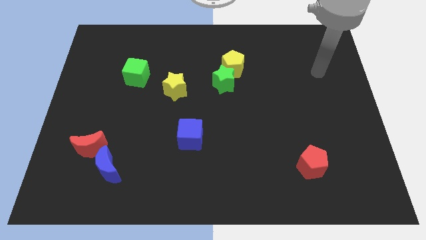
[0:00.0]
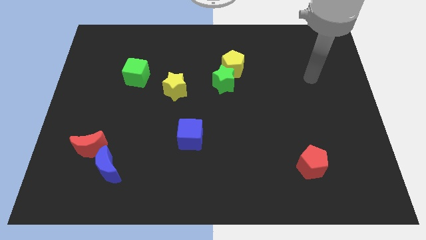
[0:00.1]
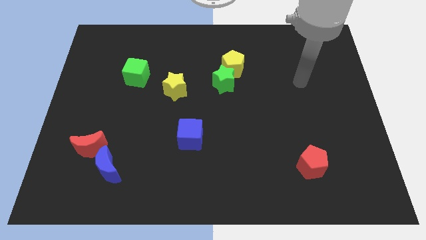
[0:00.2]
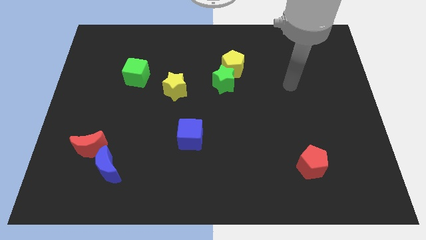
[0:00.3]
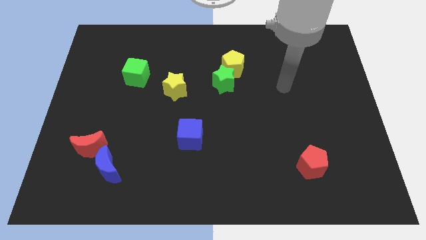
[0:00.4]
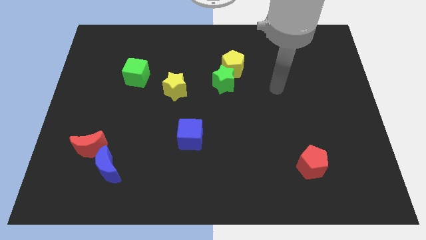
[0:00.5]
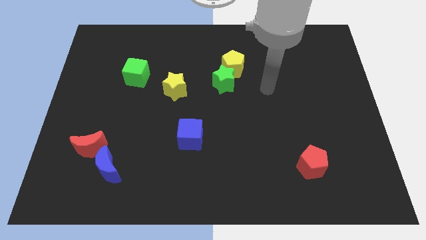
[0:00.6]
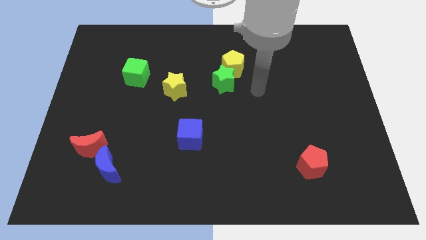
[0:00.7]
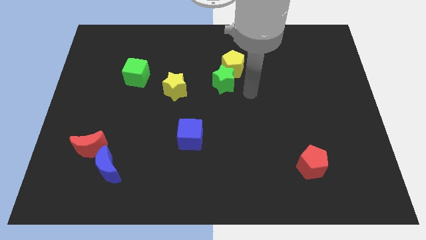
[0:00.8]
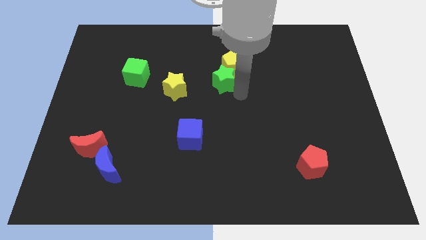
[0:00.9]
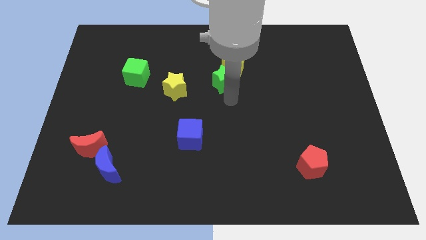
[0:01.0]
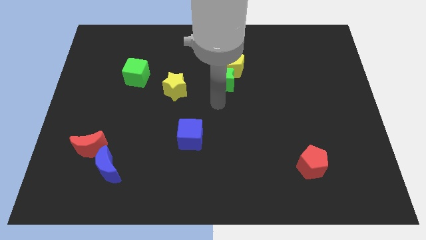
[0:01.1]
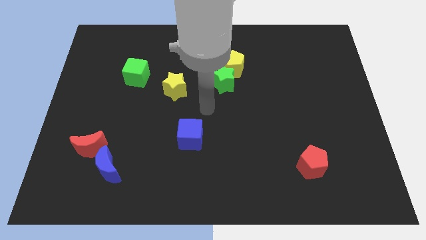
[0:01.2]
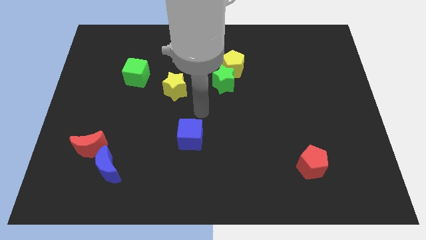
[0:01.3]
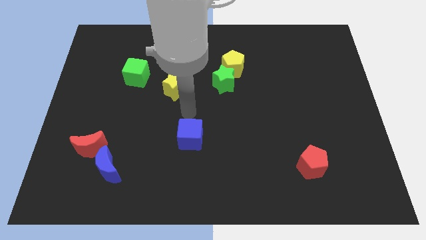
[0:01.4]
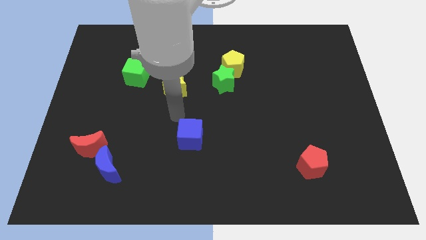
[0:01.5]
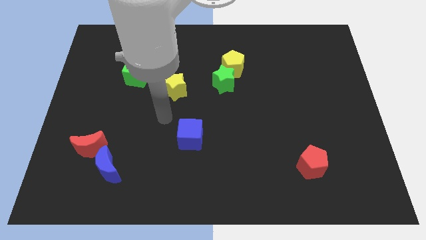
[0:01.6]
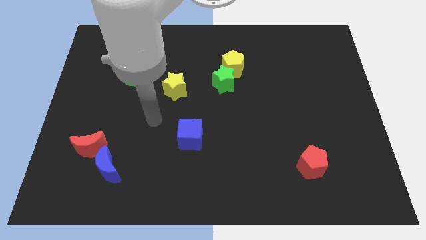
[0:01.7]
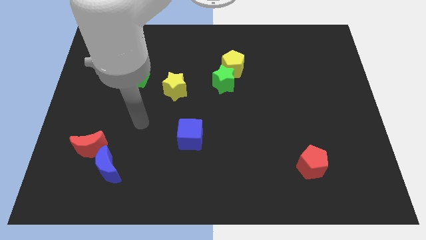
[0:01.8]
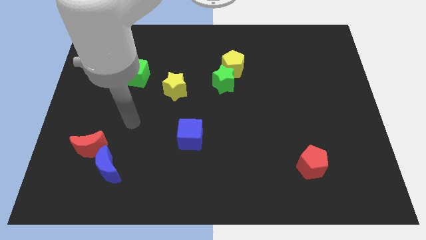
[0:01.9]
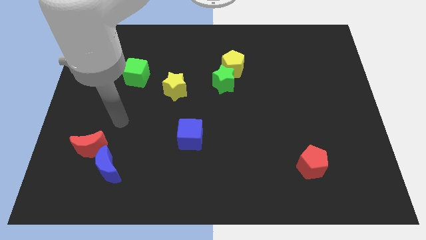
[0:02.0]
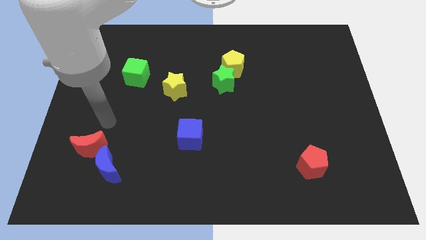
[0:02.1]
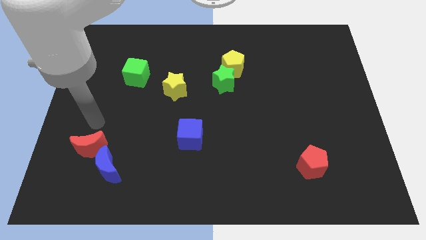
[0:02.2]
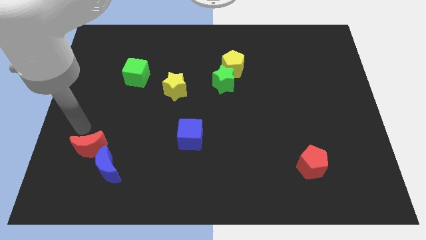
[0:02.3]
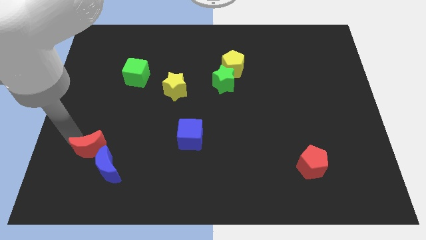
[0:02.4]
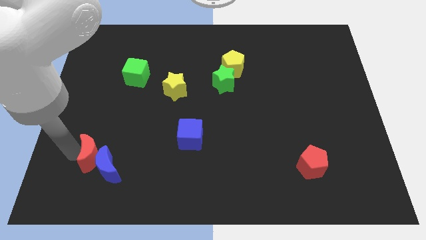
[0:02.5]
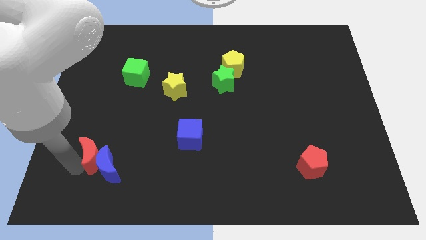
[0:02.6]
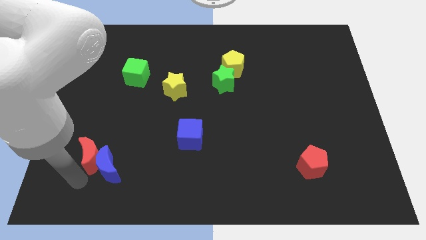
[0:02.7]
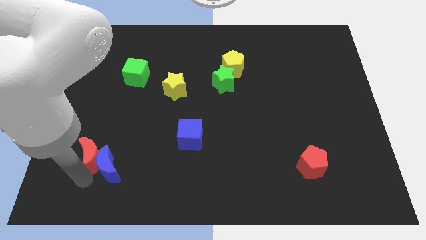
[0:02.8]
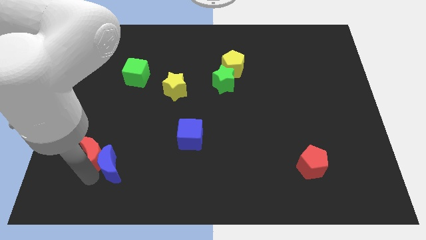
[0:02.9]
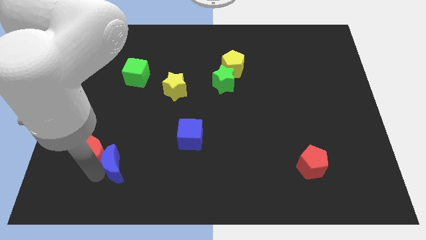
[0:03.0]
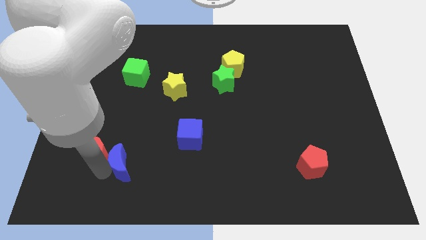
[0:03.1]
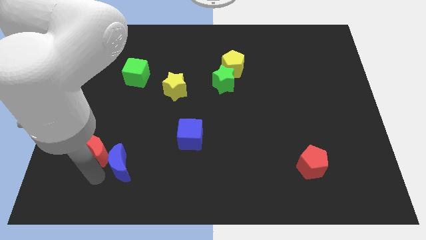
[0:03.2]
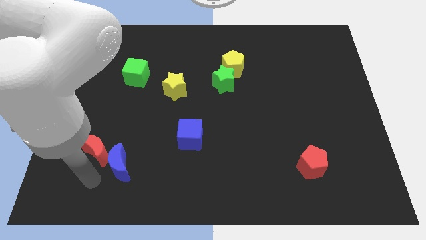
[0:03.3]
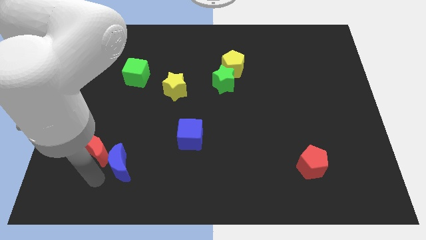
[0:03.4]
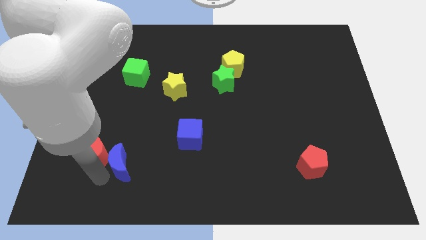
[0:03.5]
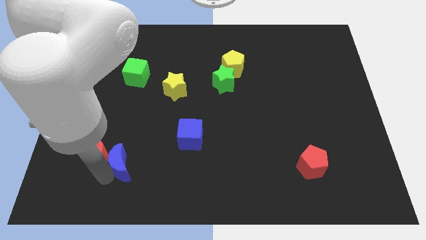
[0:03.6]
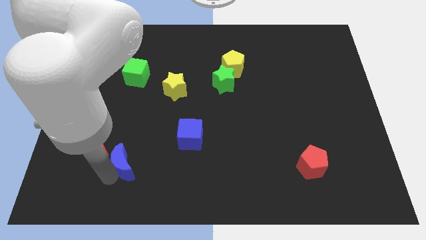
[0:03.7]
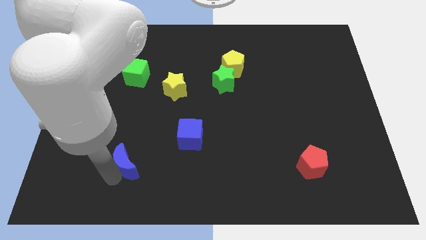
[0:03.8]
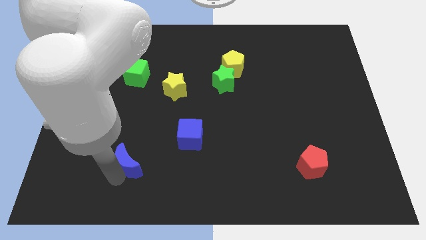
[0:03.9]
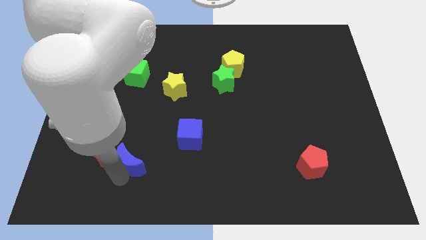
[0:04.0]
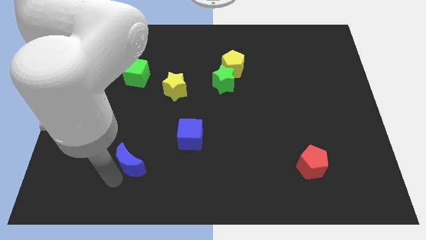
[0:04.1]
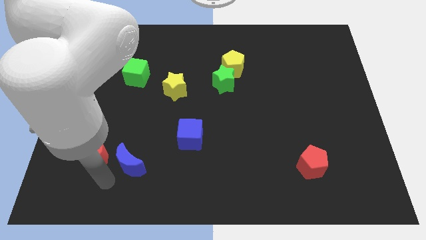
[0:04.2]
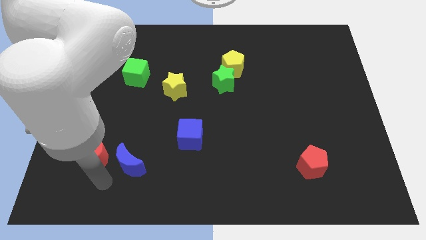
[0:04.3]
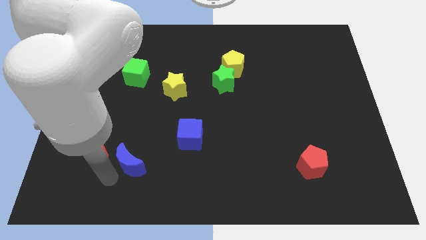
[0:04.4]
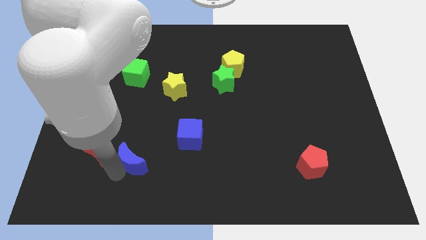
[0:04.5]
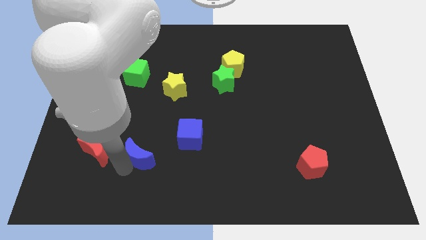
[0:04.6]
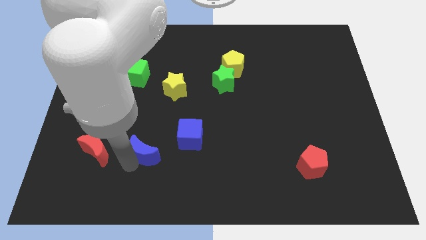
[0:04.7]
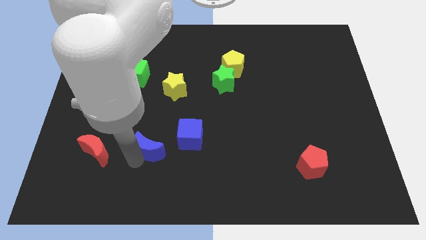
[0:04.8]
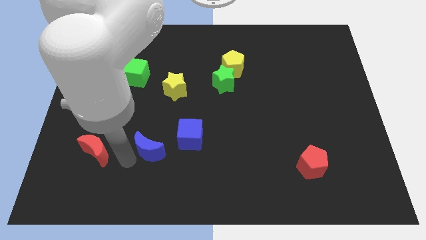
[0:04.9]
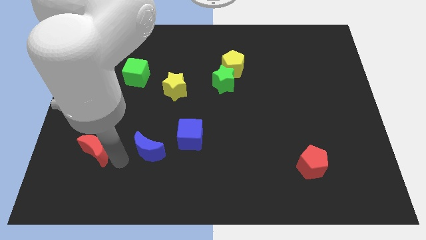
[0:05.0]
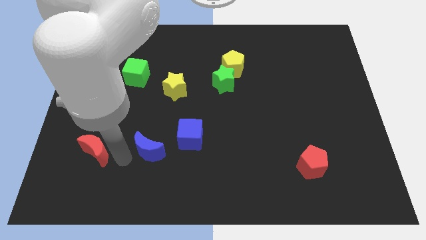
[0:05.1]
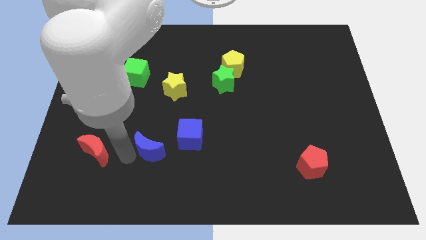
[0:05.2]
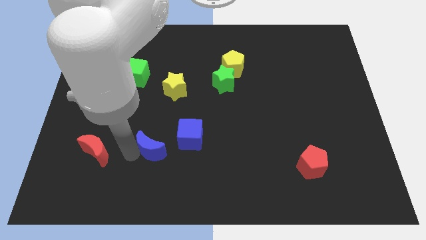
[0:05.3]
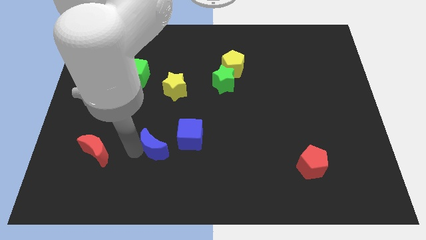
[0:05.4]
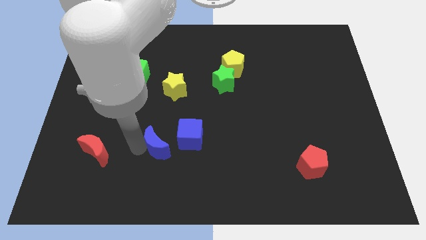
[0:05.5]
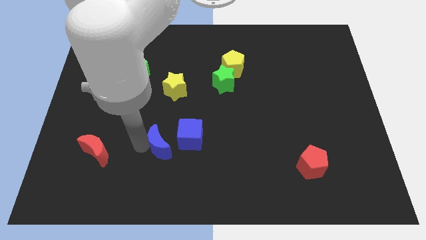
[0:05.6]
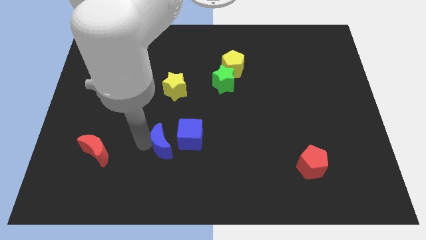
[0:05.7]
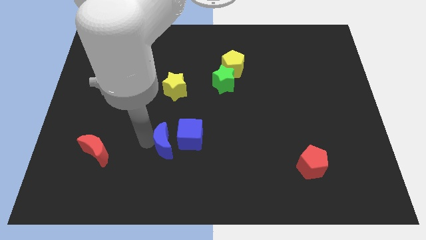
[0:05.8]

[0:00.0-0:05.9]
move the blue moon to the blue cube
